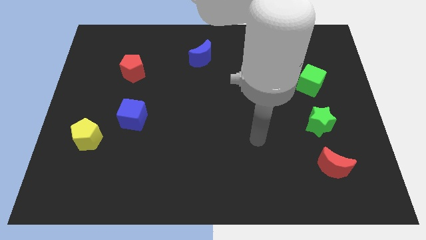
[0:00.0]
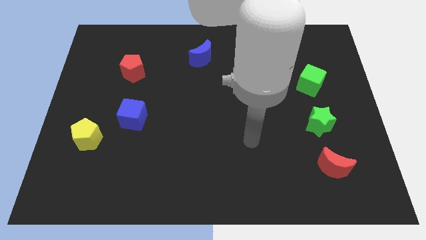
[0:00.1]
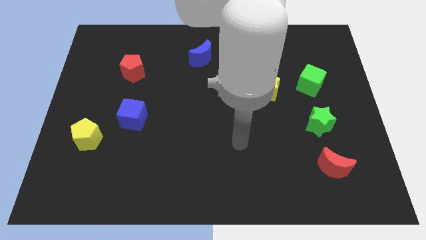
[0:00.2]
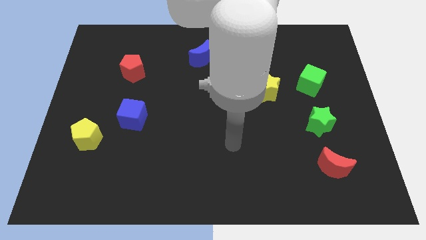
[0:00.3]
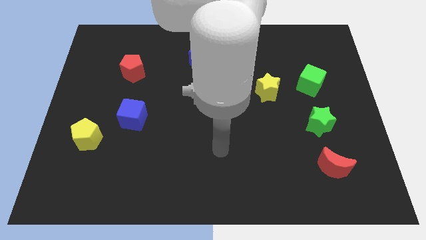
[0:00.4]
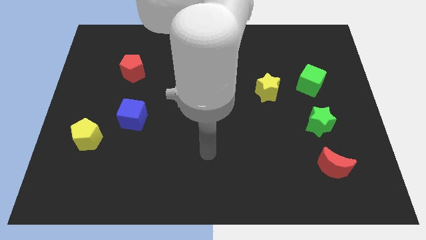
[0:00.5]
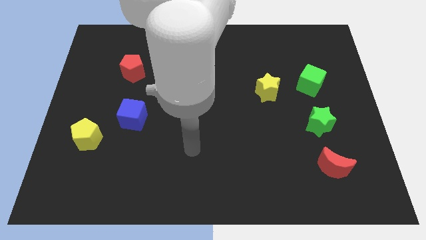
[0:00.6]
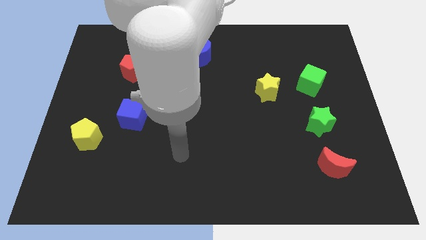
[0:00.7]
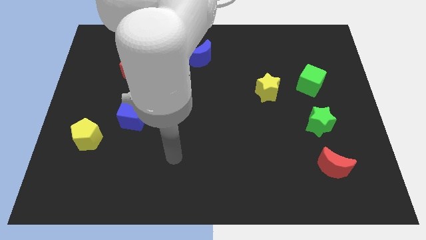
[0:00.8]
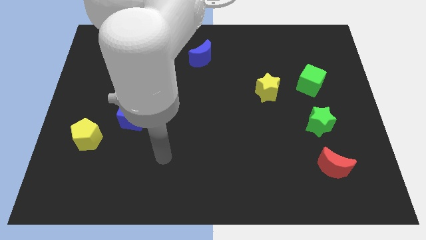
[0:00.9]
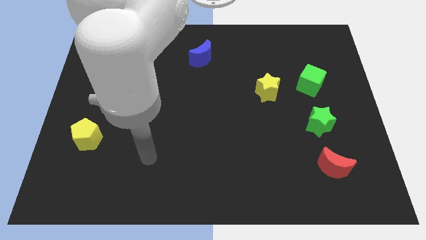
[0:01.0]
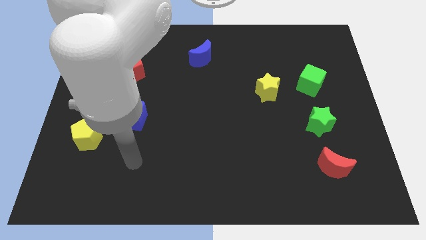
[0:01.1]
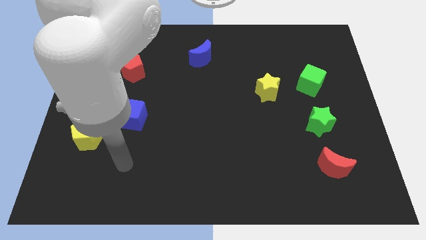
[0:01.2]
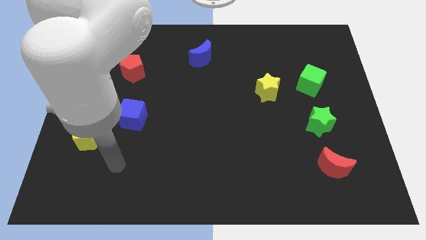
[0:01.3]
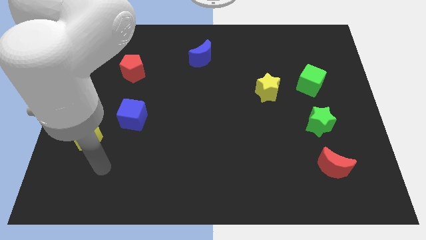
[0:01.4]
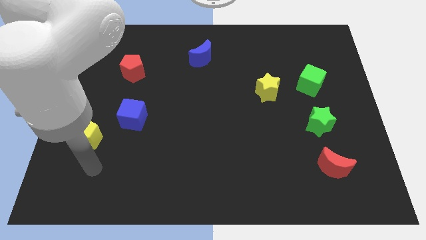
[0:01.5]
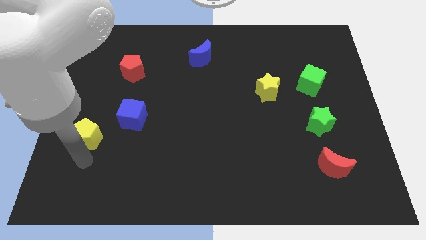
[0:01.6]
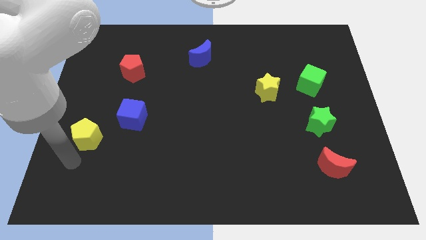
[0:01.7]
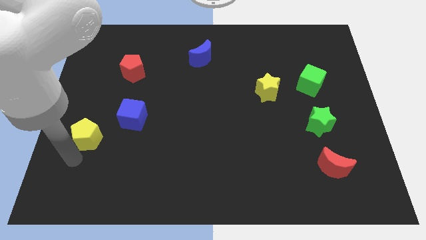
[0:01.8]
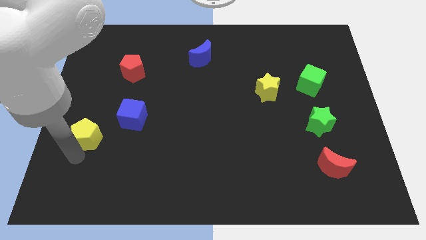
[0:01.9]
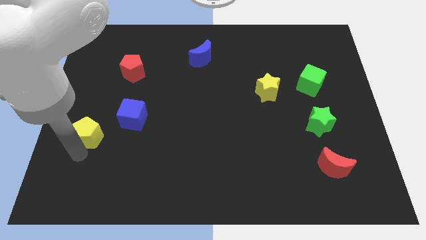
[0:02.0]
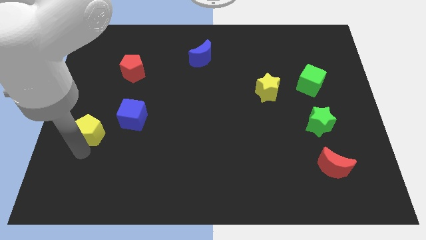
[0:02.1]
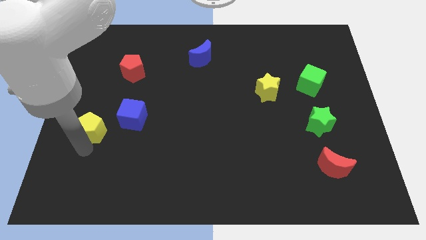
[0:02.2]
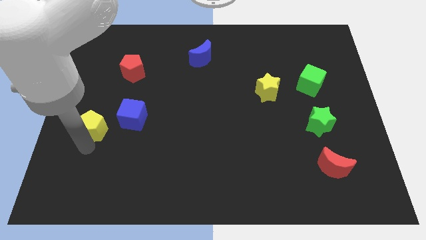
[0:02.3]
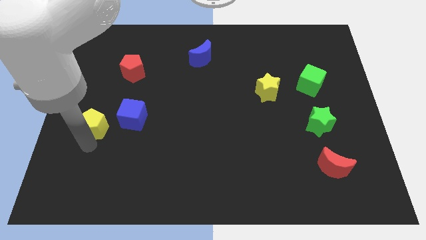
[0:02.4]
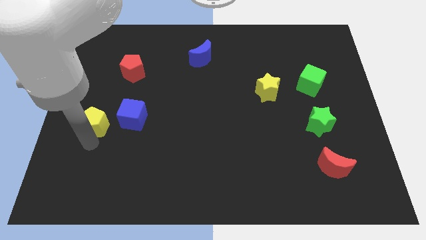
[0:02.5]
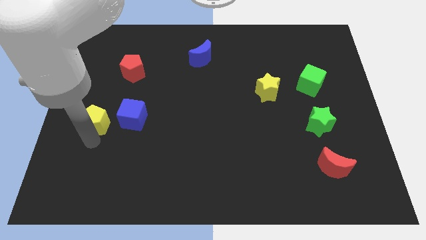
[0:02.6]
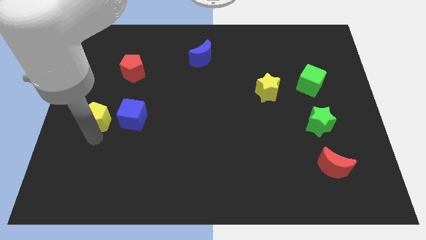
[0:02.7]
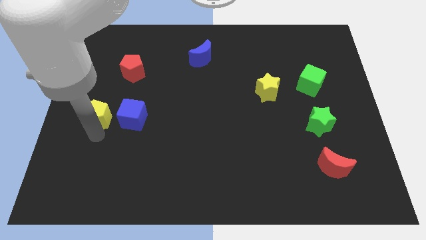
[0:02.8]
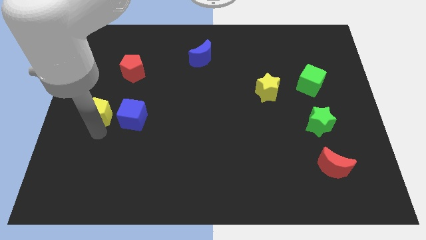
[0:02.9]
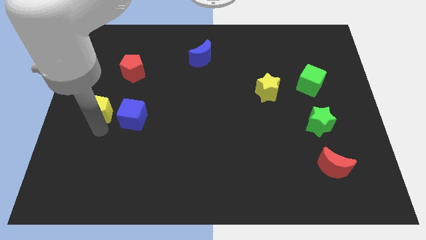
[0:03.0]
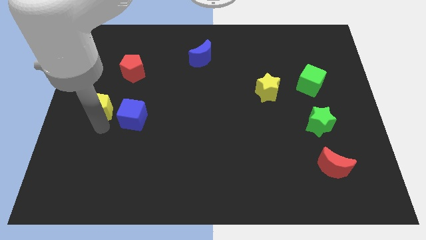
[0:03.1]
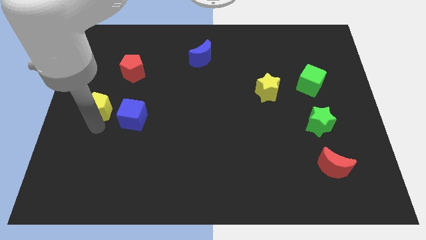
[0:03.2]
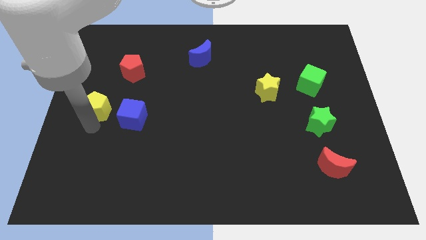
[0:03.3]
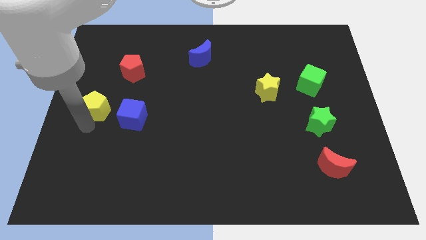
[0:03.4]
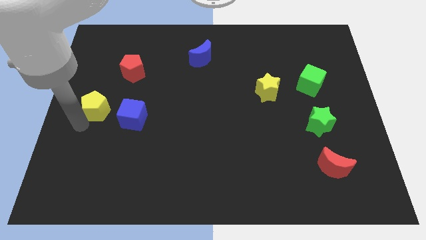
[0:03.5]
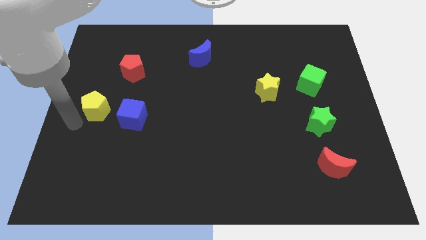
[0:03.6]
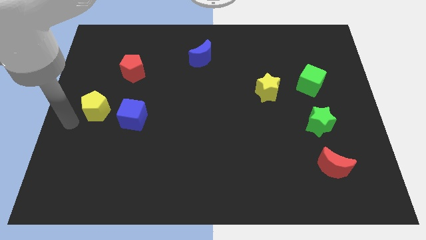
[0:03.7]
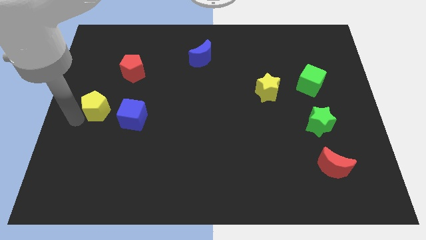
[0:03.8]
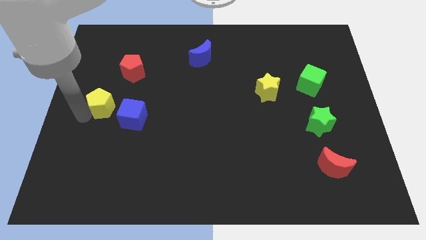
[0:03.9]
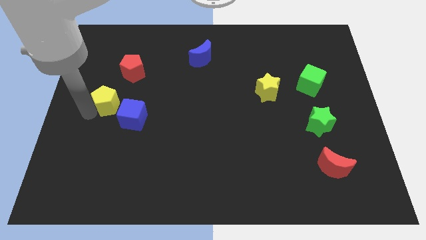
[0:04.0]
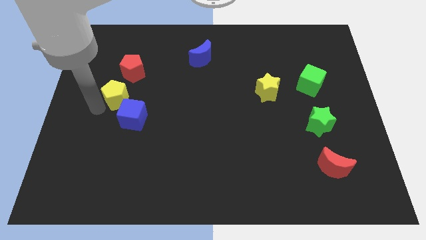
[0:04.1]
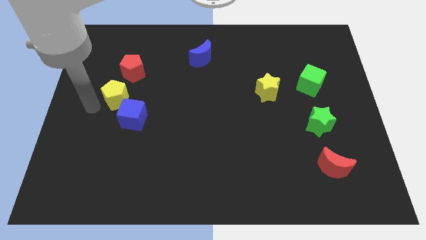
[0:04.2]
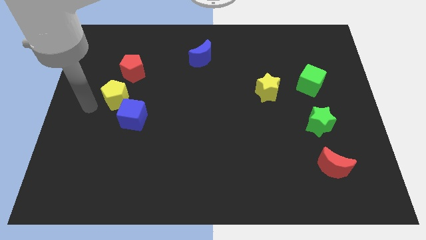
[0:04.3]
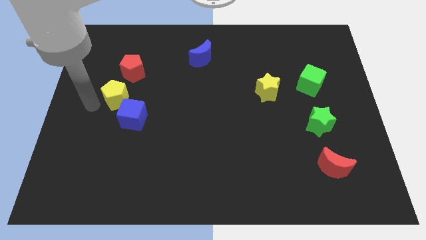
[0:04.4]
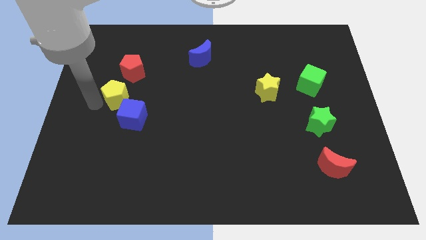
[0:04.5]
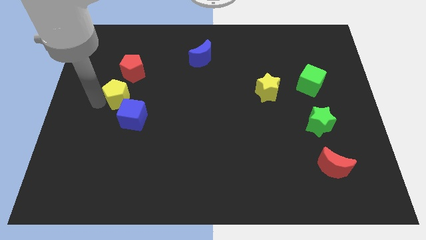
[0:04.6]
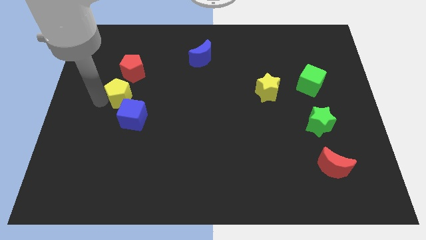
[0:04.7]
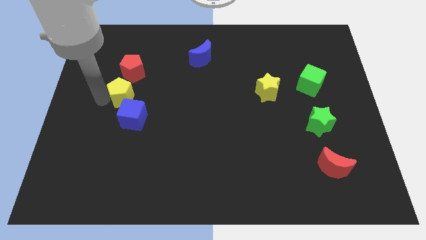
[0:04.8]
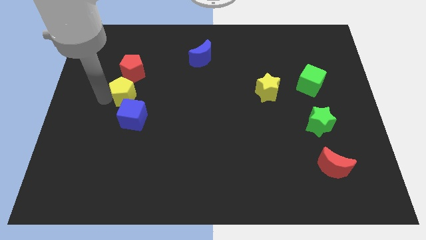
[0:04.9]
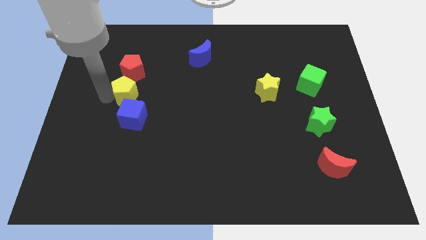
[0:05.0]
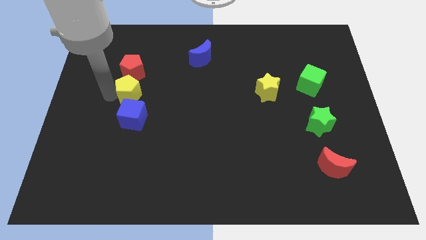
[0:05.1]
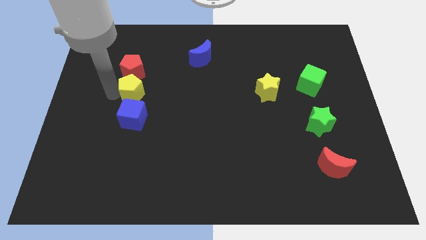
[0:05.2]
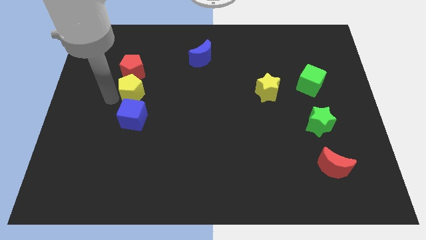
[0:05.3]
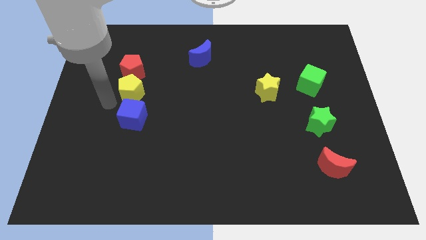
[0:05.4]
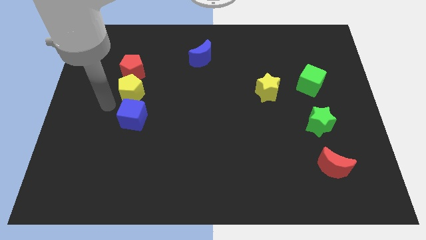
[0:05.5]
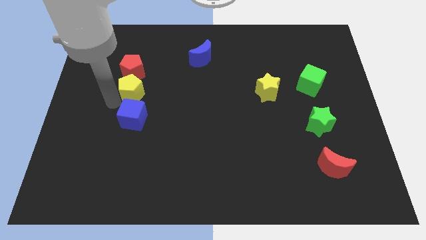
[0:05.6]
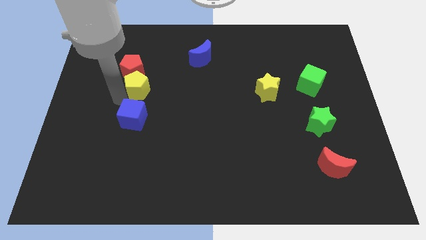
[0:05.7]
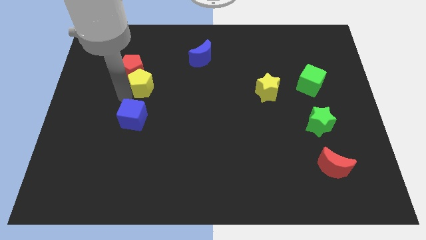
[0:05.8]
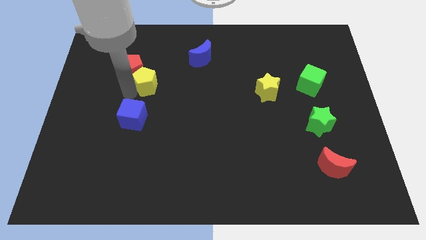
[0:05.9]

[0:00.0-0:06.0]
push the yellow pentagon right of the red pentagon
